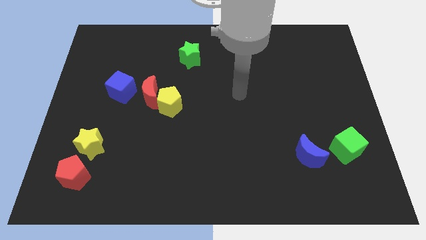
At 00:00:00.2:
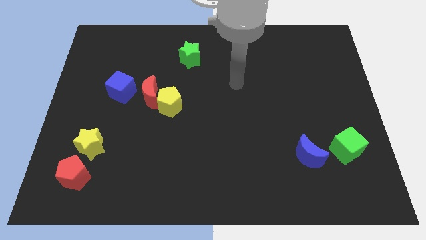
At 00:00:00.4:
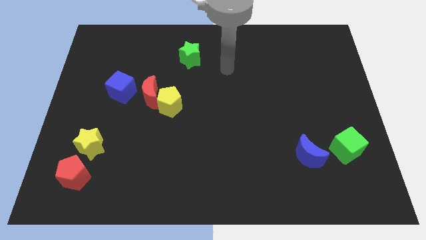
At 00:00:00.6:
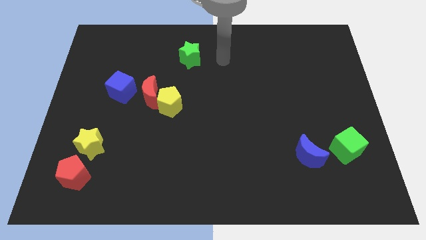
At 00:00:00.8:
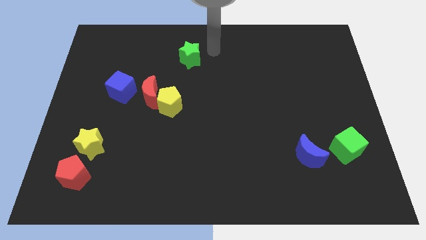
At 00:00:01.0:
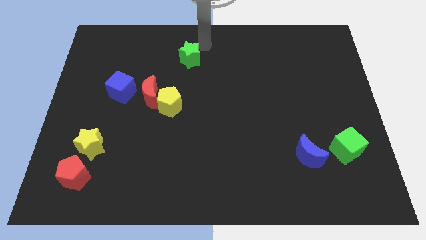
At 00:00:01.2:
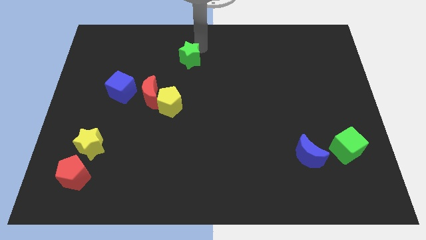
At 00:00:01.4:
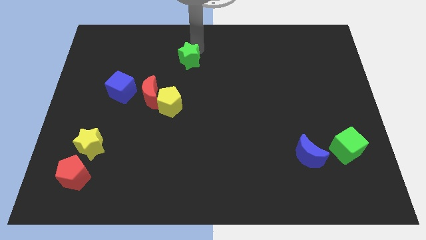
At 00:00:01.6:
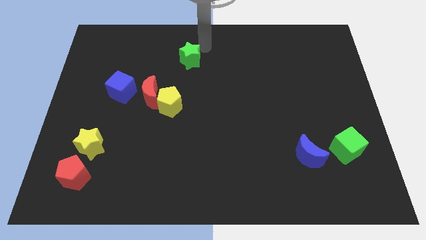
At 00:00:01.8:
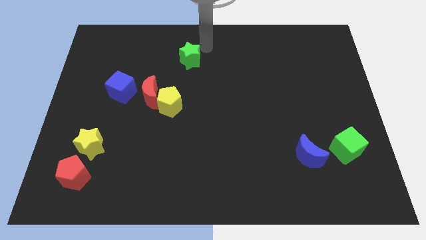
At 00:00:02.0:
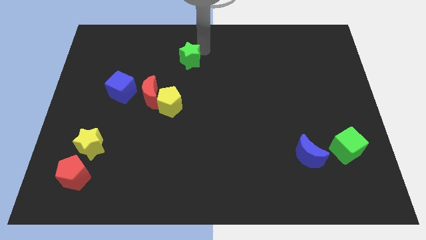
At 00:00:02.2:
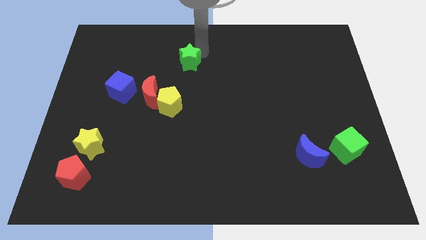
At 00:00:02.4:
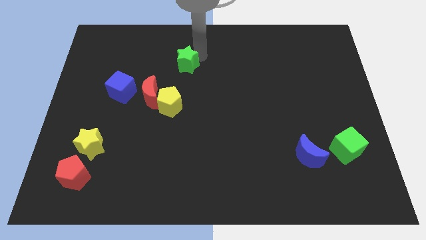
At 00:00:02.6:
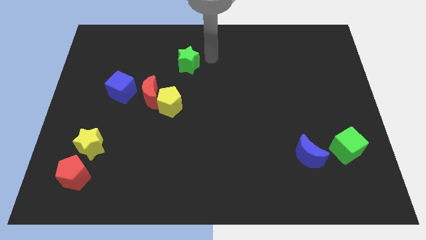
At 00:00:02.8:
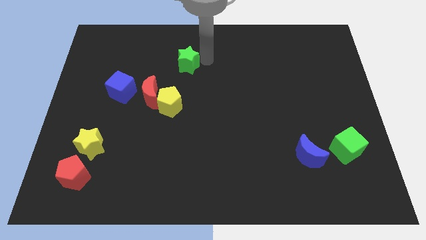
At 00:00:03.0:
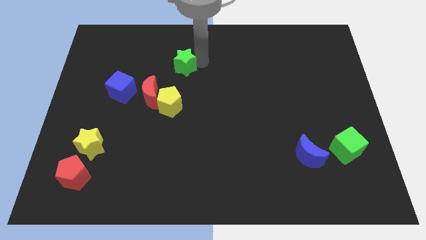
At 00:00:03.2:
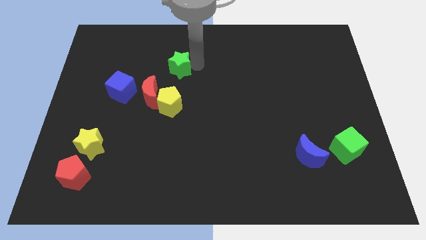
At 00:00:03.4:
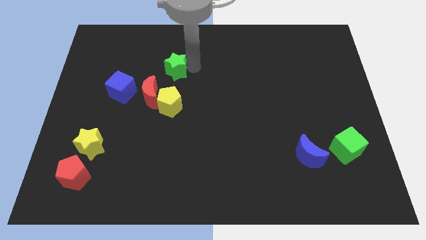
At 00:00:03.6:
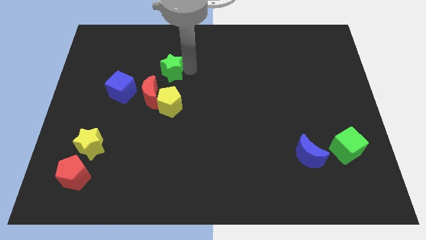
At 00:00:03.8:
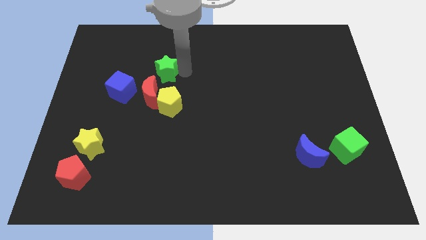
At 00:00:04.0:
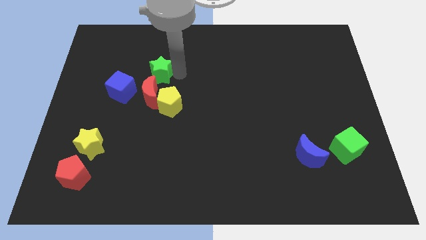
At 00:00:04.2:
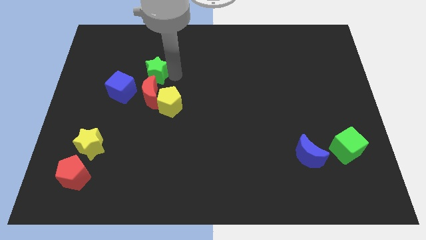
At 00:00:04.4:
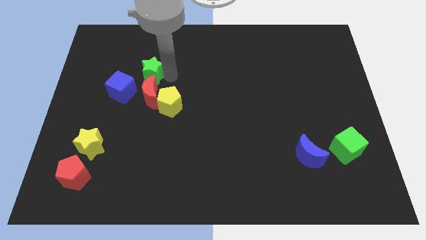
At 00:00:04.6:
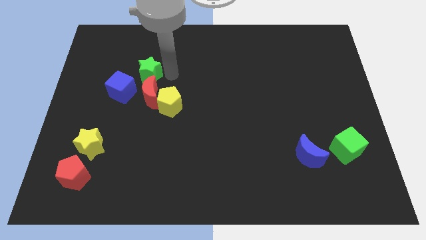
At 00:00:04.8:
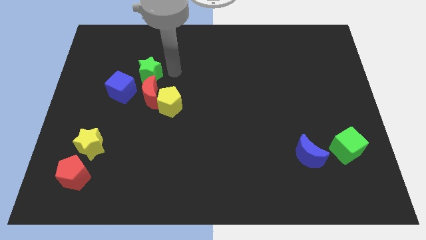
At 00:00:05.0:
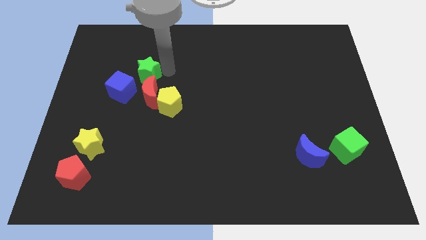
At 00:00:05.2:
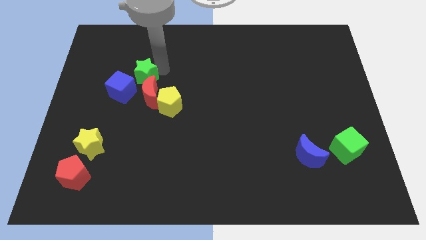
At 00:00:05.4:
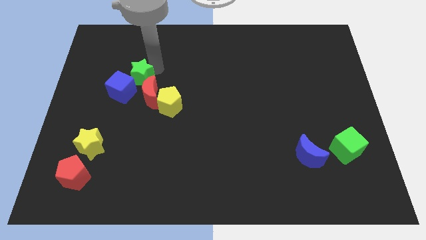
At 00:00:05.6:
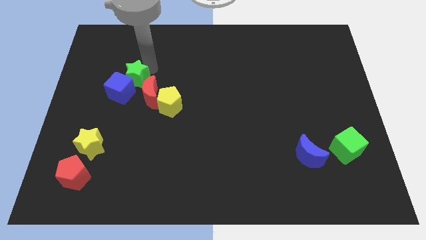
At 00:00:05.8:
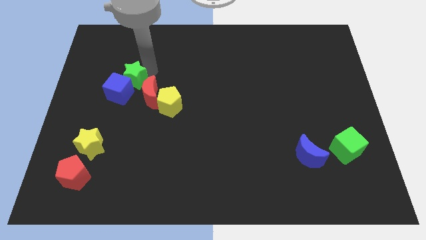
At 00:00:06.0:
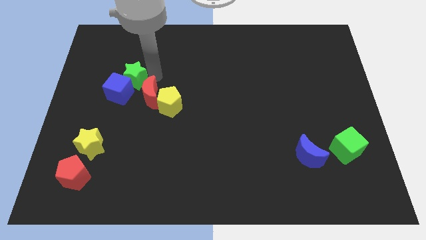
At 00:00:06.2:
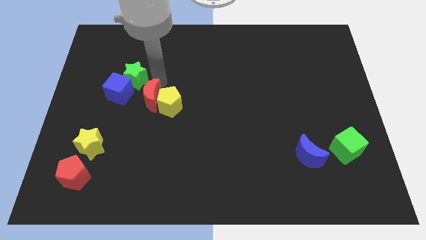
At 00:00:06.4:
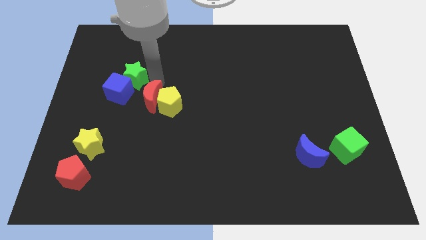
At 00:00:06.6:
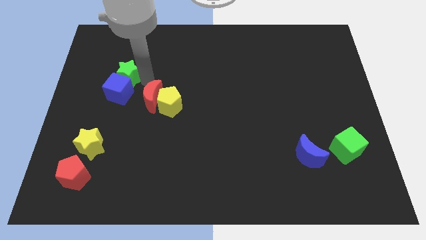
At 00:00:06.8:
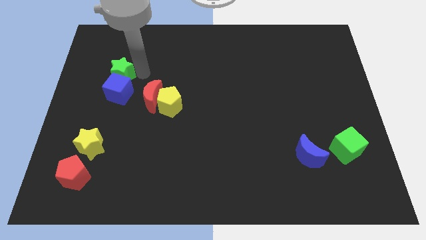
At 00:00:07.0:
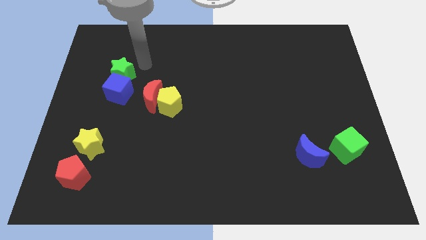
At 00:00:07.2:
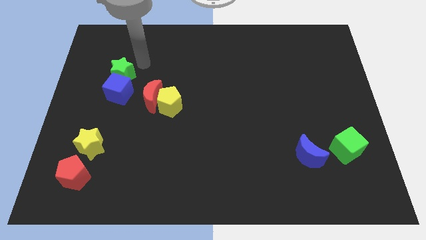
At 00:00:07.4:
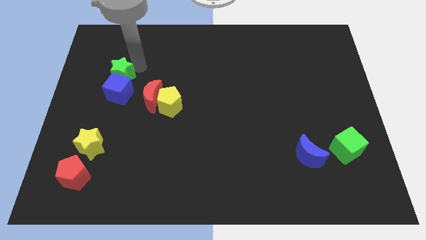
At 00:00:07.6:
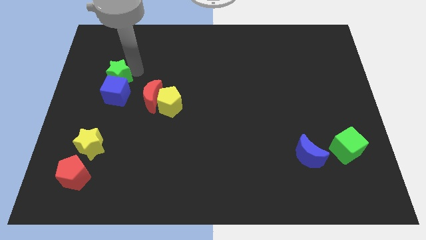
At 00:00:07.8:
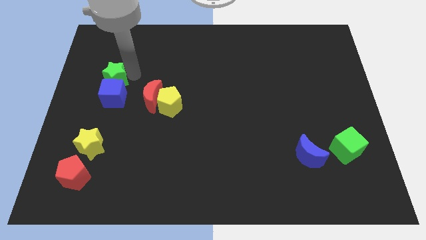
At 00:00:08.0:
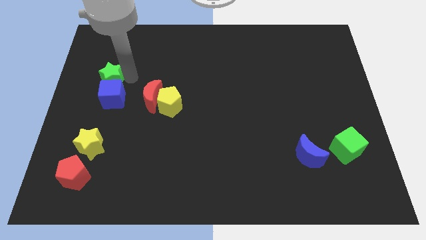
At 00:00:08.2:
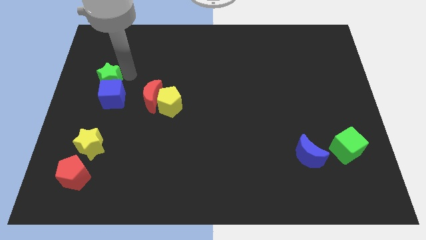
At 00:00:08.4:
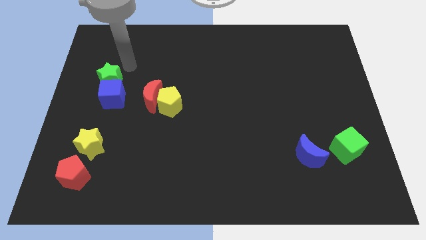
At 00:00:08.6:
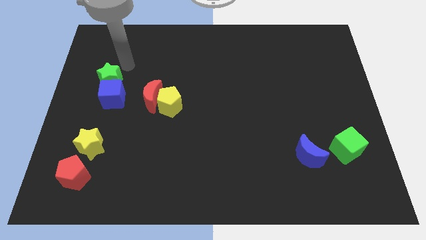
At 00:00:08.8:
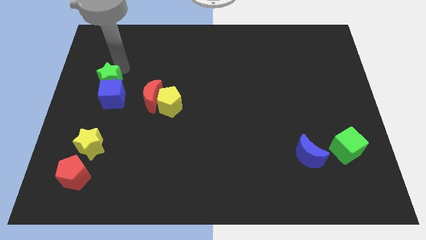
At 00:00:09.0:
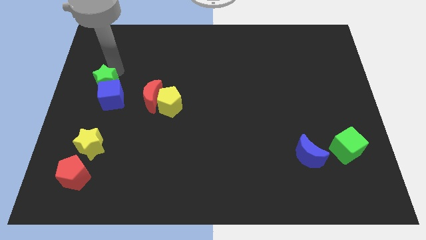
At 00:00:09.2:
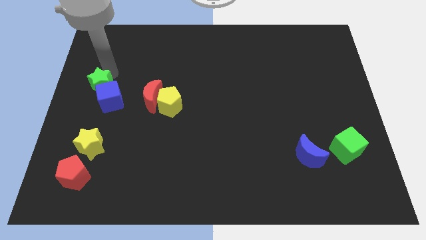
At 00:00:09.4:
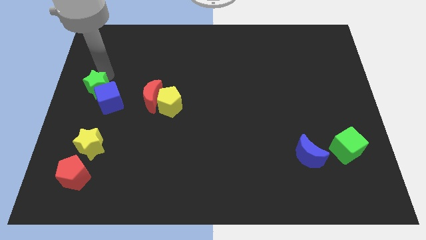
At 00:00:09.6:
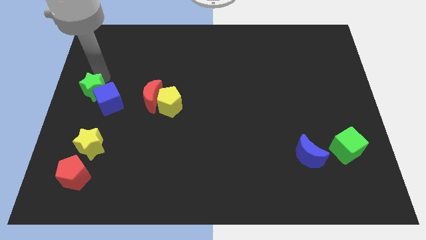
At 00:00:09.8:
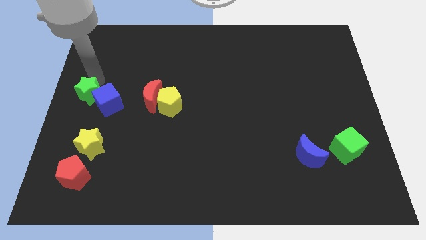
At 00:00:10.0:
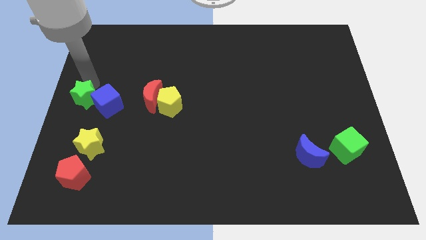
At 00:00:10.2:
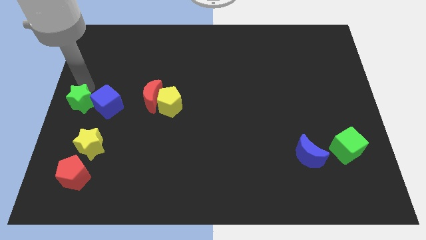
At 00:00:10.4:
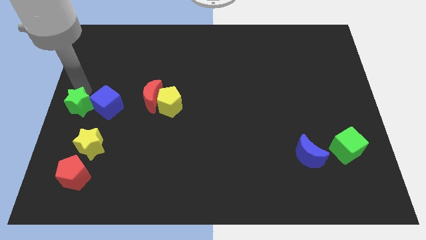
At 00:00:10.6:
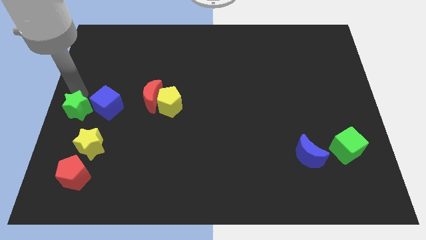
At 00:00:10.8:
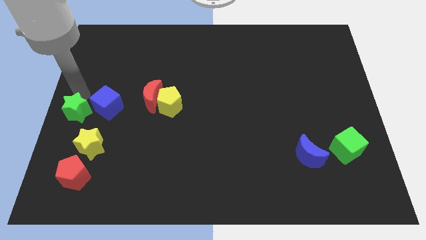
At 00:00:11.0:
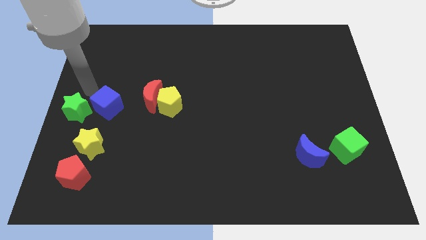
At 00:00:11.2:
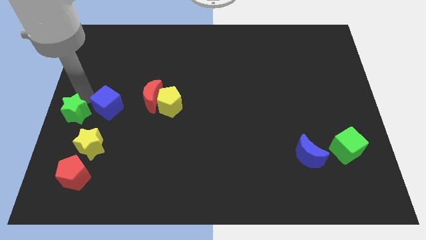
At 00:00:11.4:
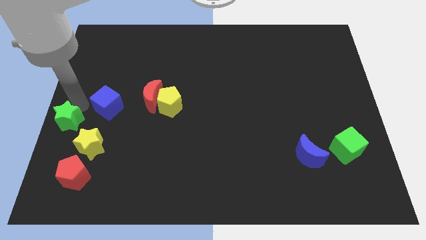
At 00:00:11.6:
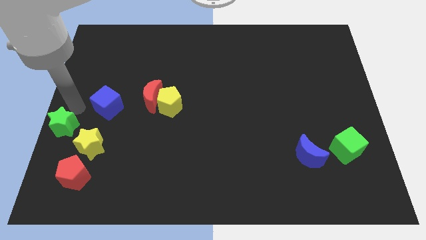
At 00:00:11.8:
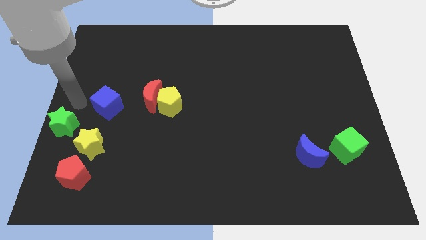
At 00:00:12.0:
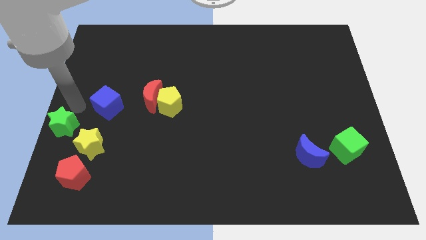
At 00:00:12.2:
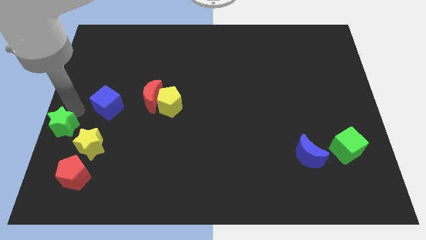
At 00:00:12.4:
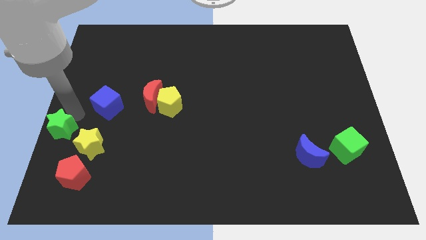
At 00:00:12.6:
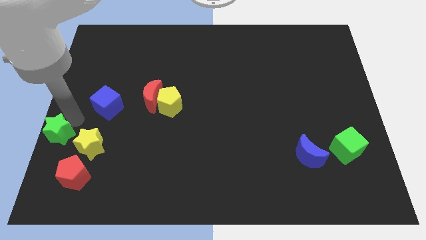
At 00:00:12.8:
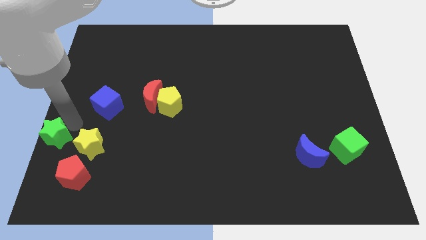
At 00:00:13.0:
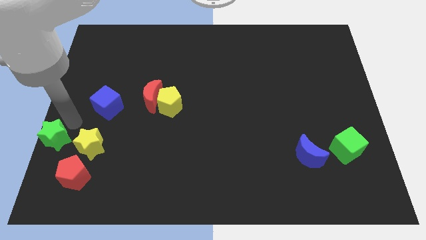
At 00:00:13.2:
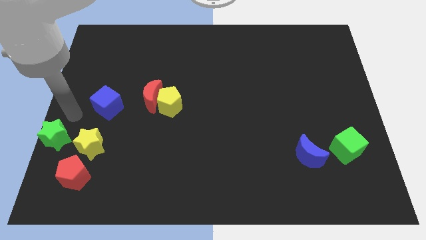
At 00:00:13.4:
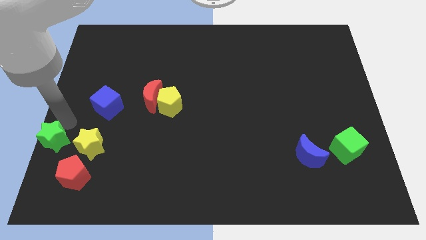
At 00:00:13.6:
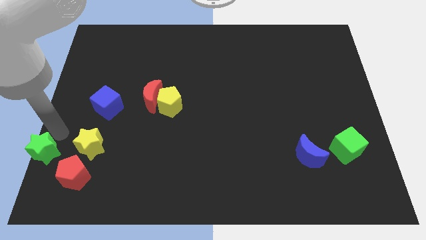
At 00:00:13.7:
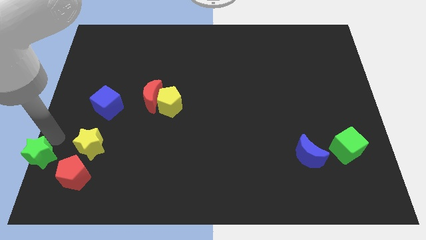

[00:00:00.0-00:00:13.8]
move the green star to the bottom left corner

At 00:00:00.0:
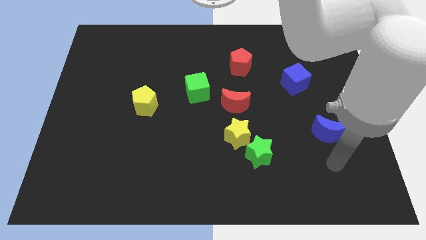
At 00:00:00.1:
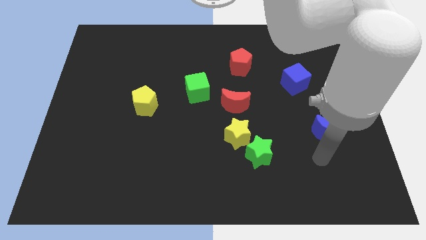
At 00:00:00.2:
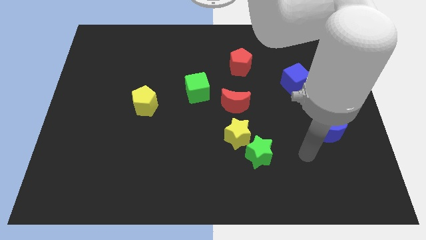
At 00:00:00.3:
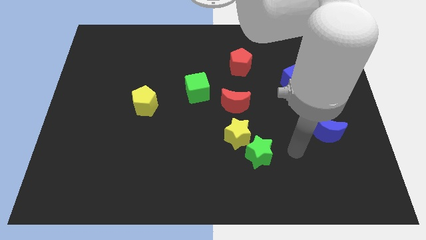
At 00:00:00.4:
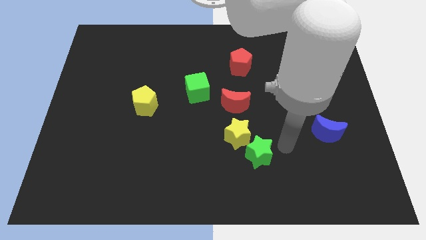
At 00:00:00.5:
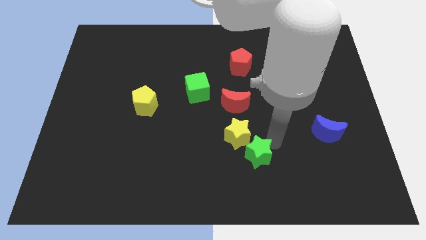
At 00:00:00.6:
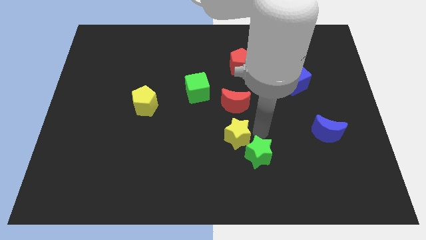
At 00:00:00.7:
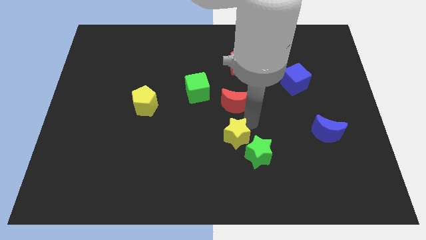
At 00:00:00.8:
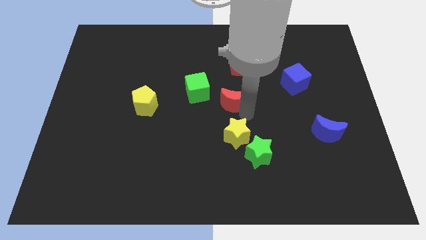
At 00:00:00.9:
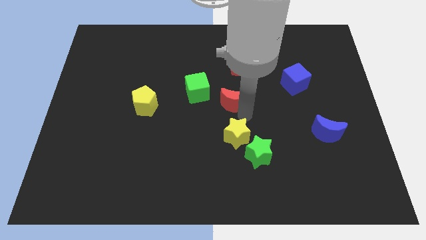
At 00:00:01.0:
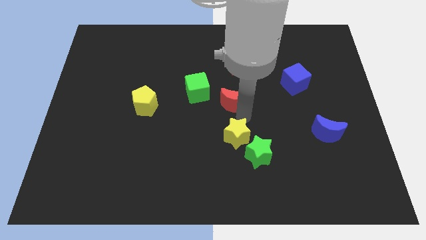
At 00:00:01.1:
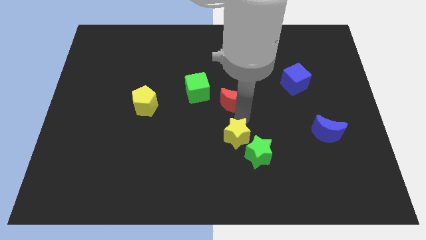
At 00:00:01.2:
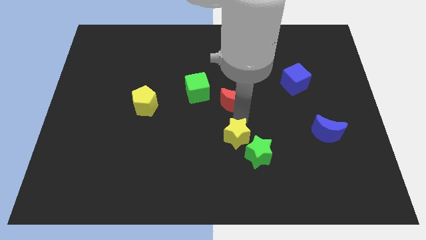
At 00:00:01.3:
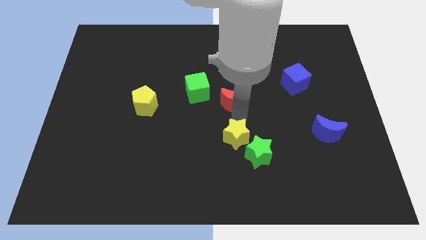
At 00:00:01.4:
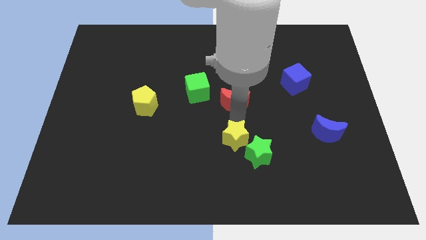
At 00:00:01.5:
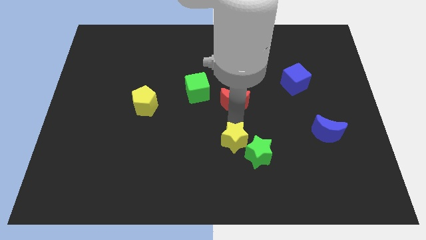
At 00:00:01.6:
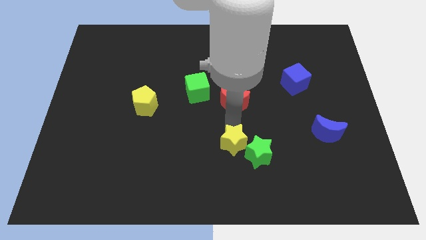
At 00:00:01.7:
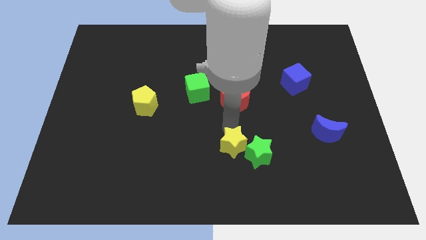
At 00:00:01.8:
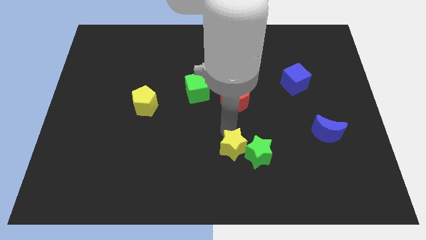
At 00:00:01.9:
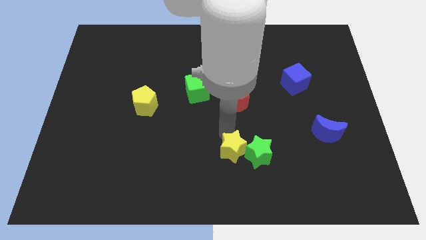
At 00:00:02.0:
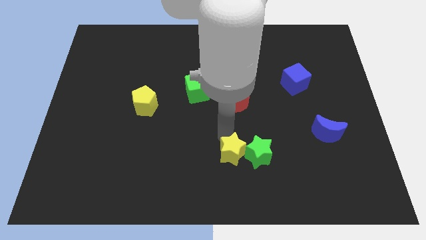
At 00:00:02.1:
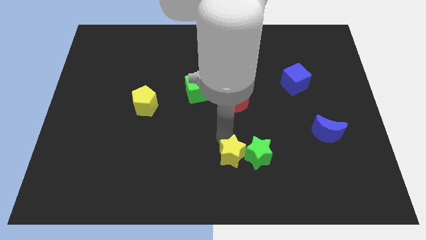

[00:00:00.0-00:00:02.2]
move the yellow star to the bottom
